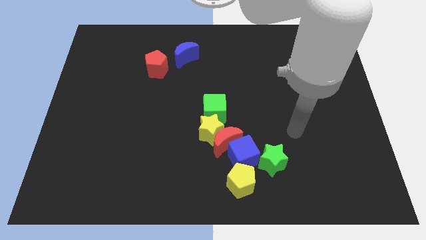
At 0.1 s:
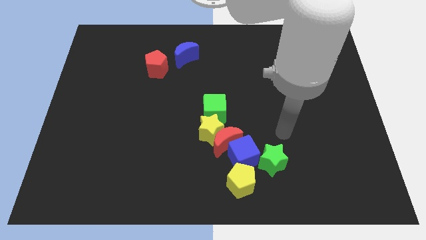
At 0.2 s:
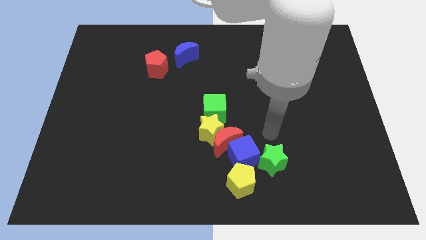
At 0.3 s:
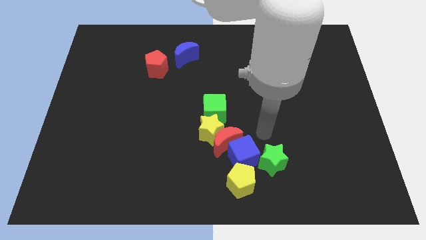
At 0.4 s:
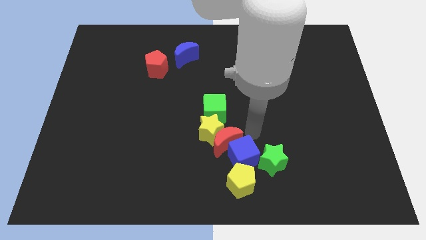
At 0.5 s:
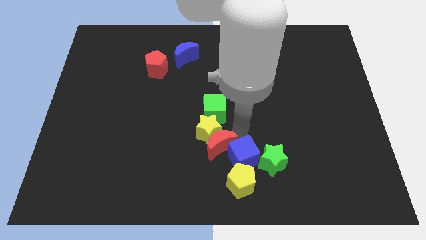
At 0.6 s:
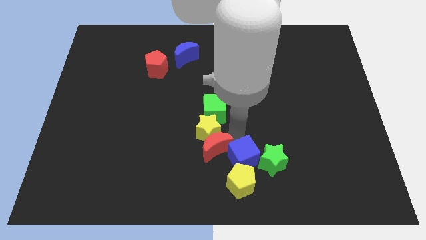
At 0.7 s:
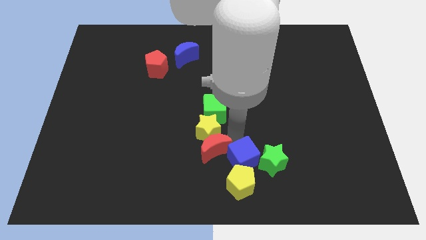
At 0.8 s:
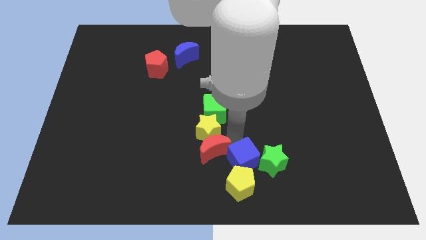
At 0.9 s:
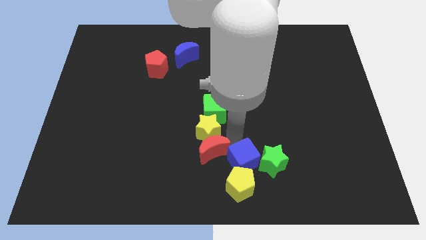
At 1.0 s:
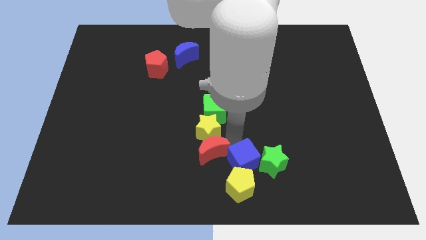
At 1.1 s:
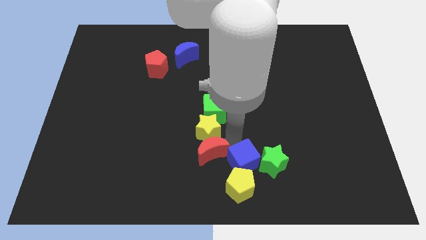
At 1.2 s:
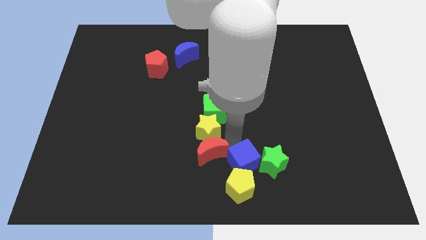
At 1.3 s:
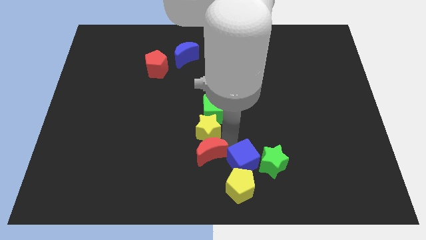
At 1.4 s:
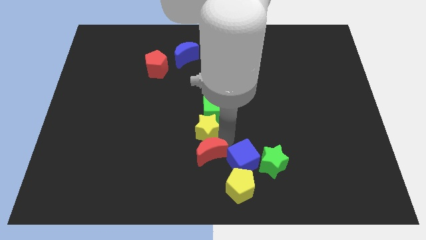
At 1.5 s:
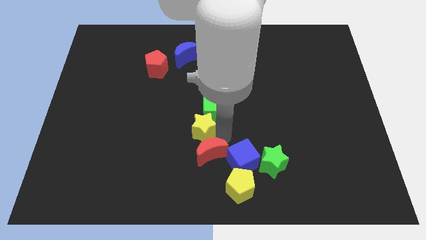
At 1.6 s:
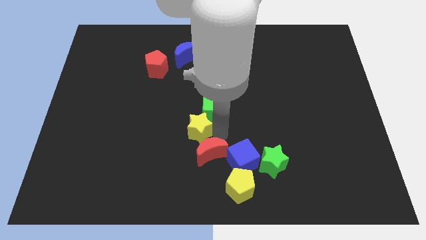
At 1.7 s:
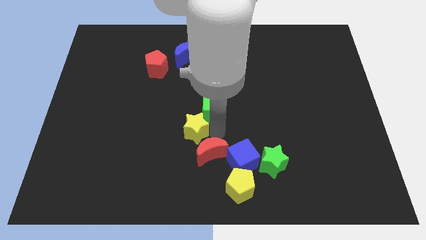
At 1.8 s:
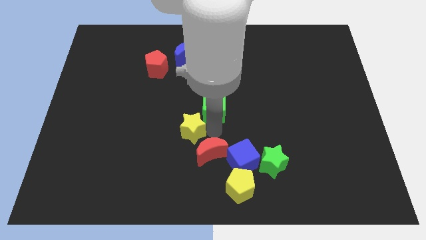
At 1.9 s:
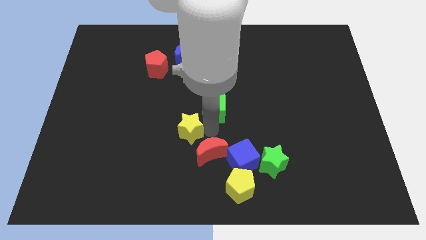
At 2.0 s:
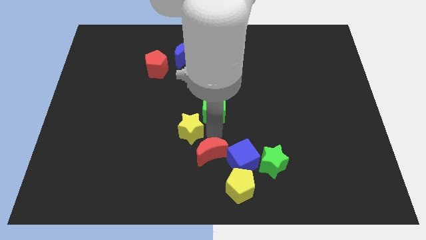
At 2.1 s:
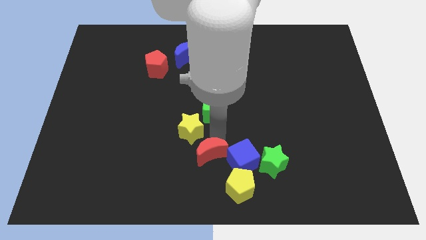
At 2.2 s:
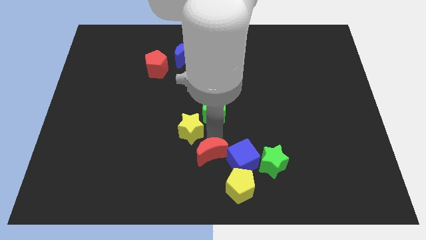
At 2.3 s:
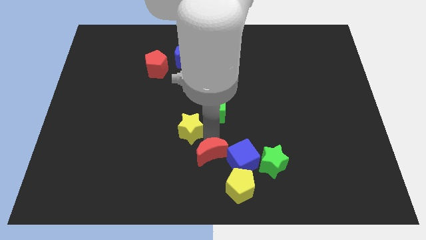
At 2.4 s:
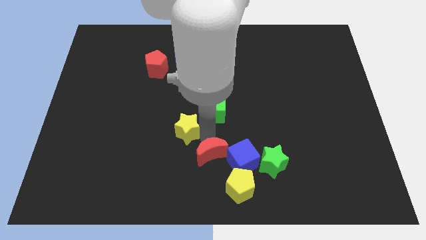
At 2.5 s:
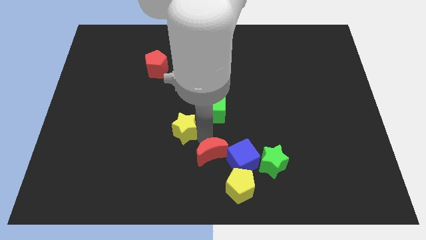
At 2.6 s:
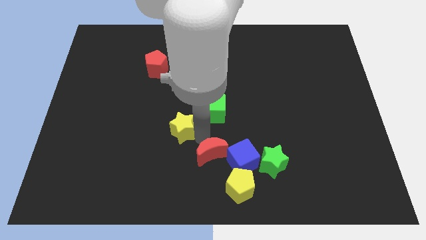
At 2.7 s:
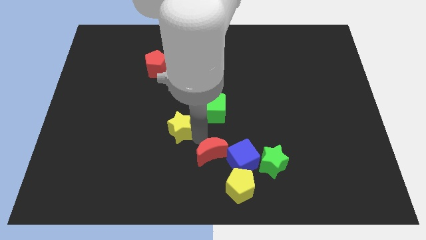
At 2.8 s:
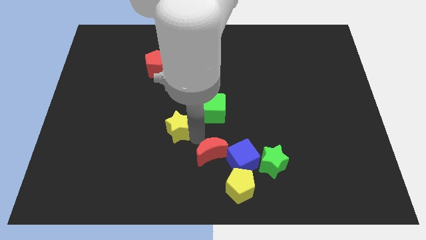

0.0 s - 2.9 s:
pull the yellow star apart from the group of blocks

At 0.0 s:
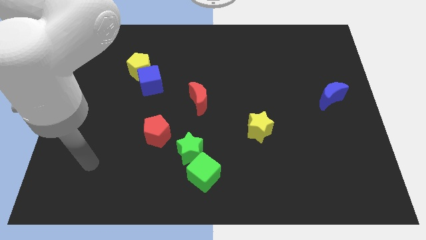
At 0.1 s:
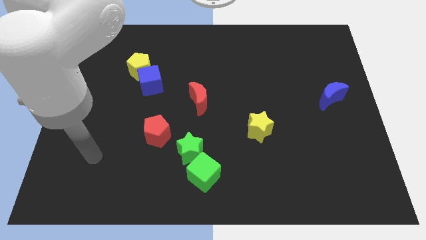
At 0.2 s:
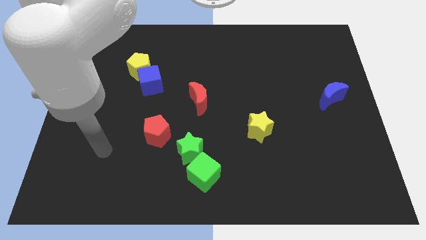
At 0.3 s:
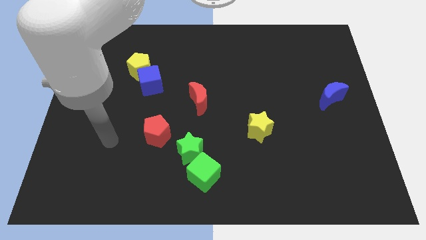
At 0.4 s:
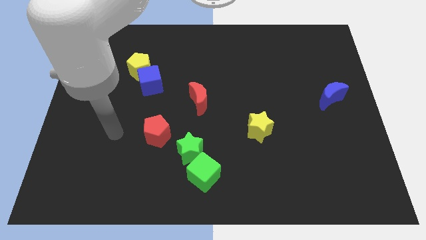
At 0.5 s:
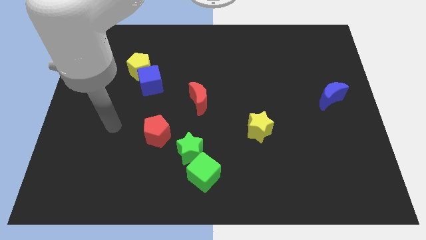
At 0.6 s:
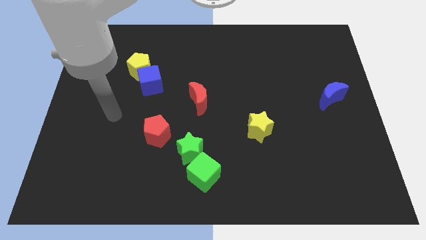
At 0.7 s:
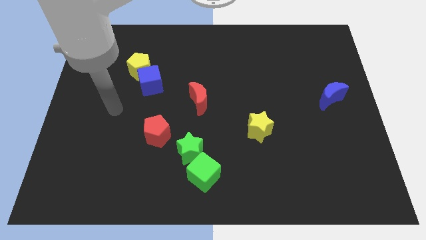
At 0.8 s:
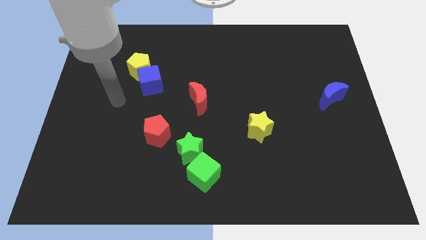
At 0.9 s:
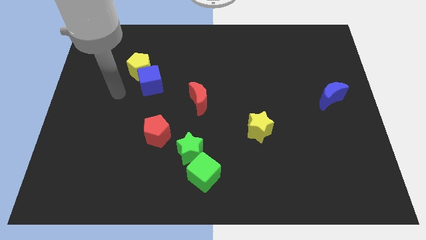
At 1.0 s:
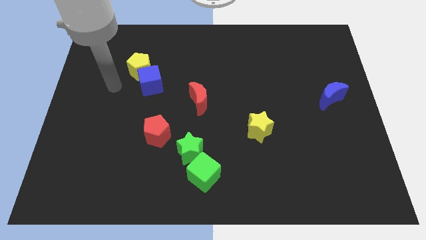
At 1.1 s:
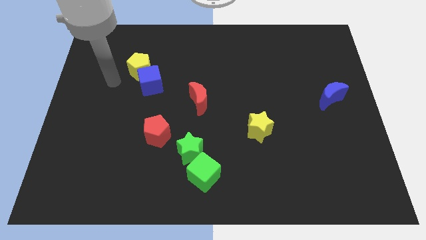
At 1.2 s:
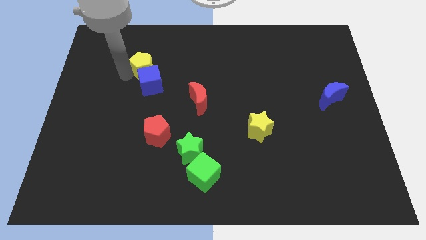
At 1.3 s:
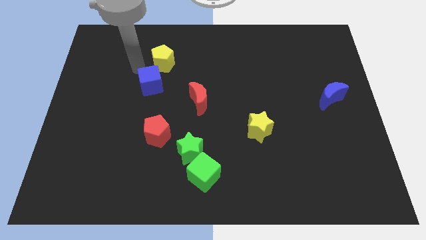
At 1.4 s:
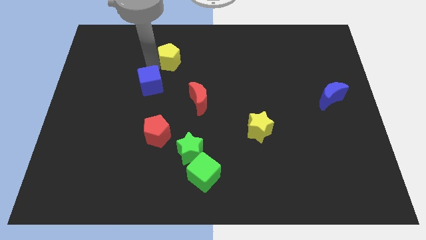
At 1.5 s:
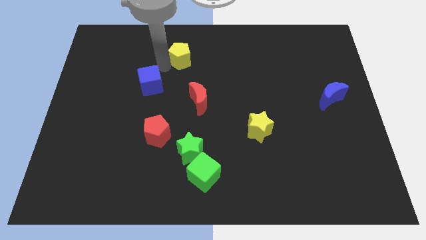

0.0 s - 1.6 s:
separate the blue cube from the yellow pentagon

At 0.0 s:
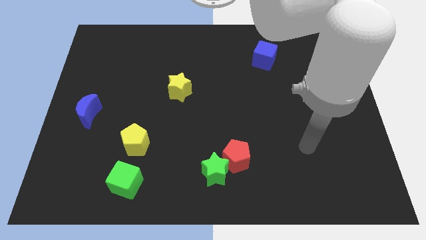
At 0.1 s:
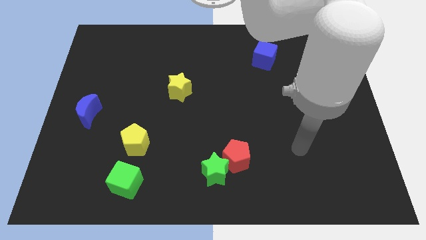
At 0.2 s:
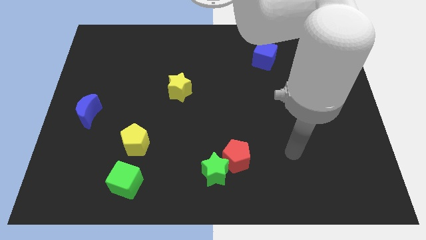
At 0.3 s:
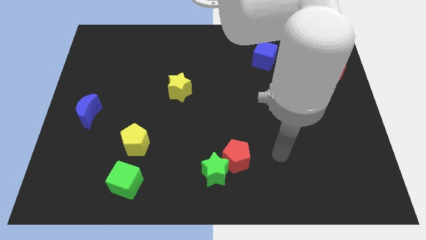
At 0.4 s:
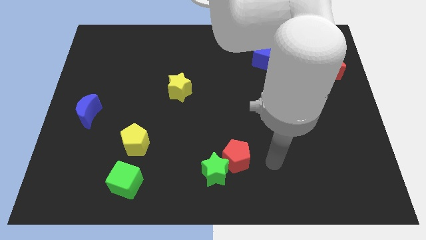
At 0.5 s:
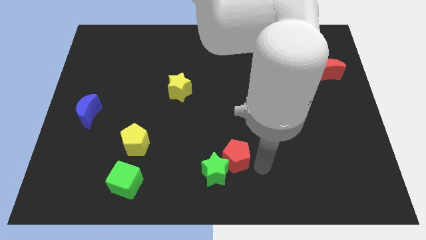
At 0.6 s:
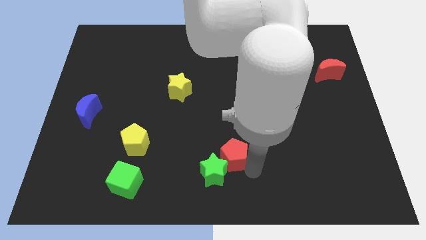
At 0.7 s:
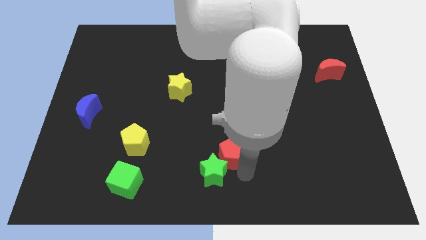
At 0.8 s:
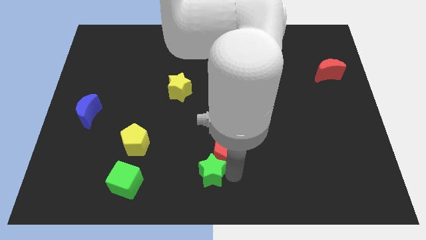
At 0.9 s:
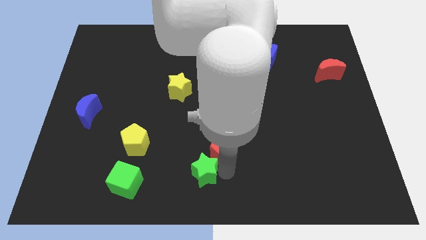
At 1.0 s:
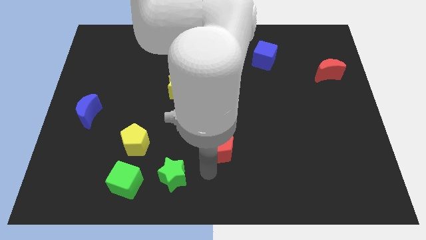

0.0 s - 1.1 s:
move the red pentagon away from the green star

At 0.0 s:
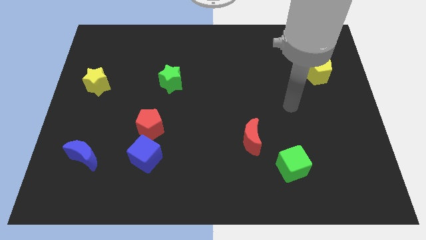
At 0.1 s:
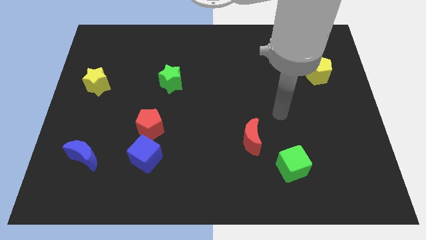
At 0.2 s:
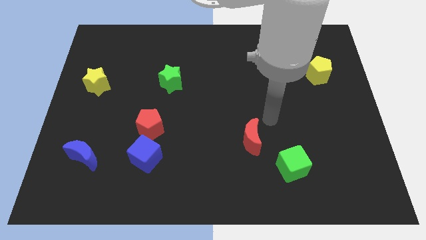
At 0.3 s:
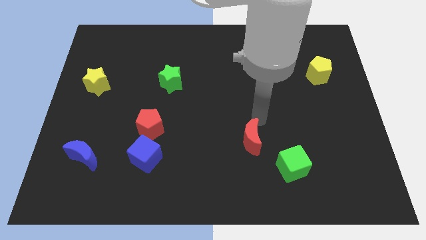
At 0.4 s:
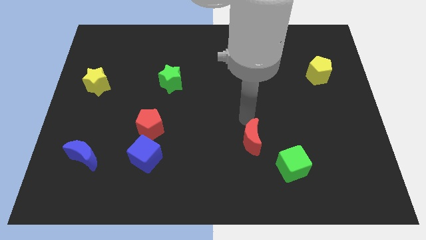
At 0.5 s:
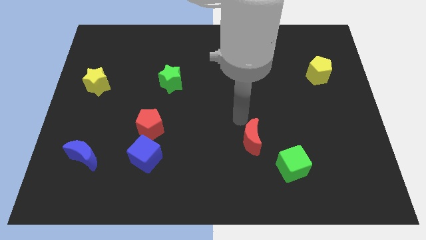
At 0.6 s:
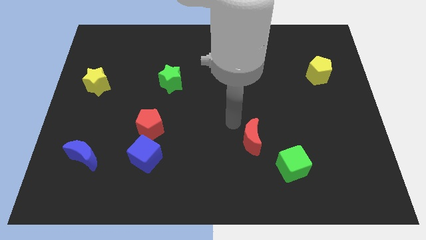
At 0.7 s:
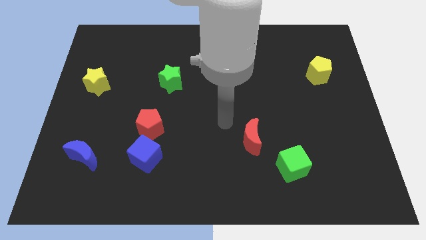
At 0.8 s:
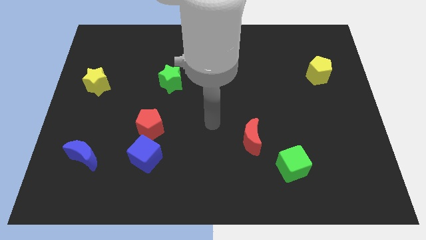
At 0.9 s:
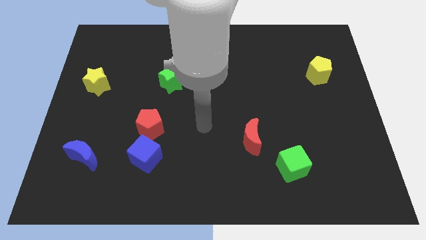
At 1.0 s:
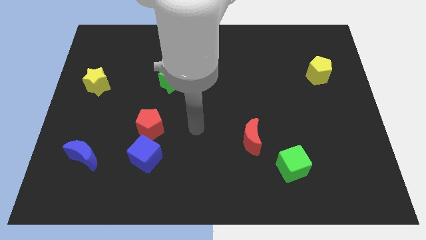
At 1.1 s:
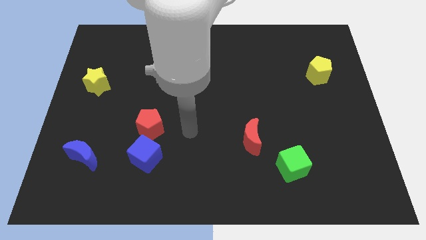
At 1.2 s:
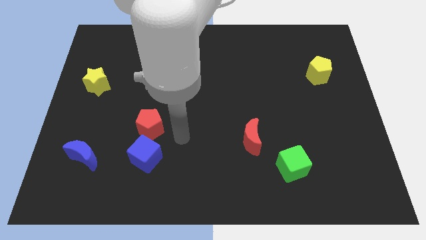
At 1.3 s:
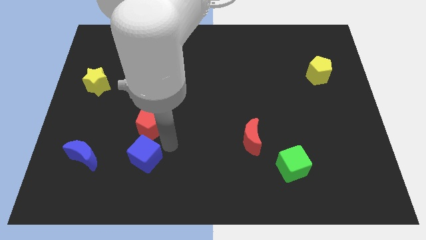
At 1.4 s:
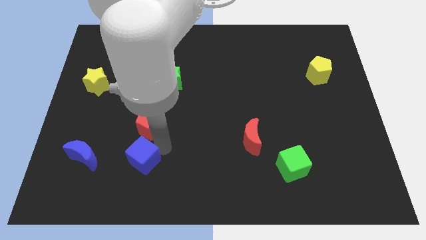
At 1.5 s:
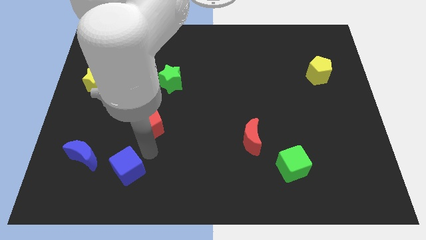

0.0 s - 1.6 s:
move the red pentagon away from the blue cube

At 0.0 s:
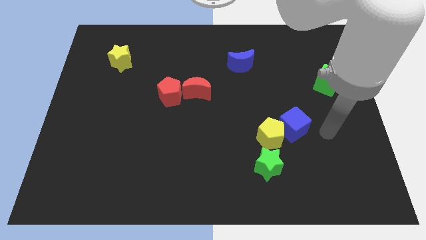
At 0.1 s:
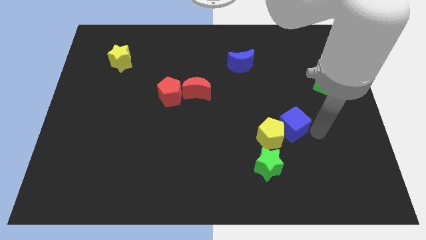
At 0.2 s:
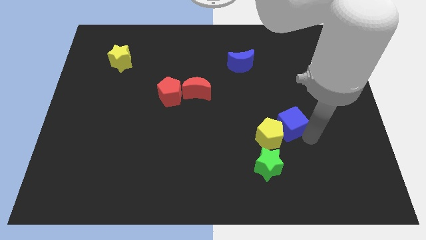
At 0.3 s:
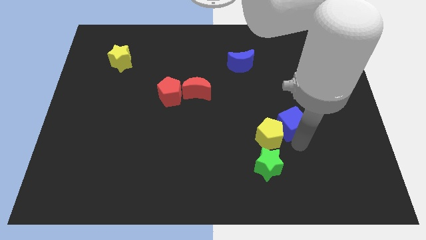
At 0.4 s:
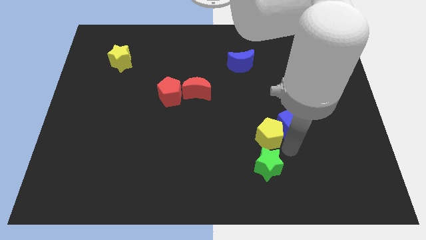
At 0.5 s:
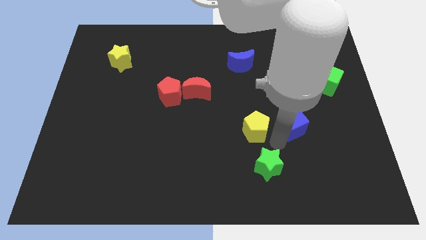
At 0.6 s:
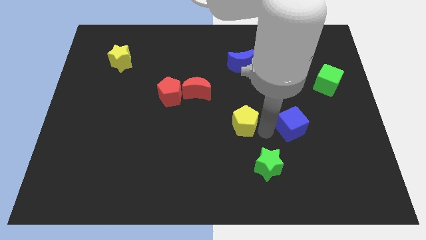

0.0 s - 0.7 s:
pull the blue cube apart from the yellow pentagon

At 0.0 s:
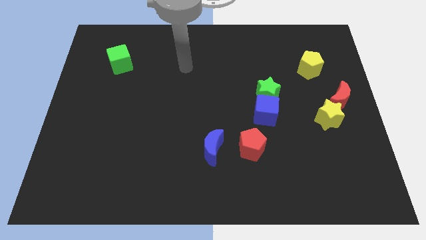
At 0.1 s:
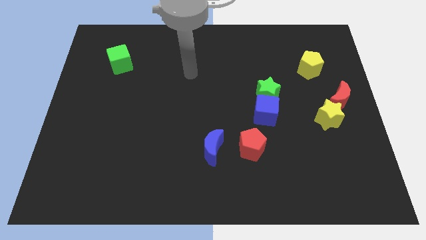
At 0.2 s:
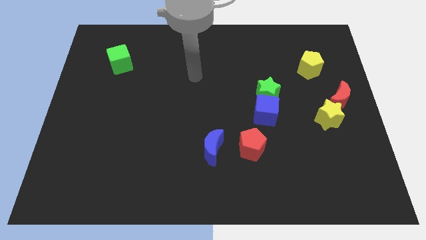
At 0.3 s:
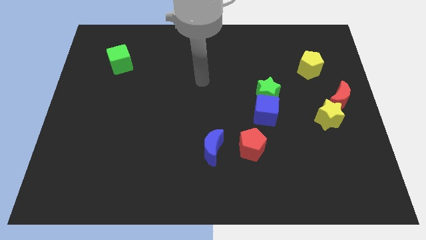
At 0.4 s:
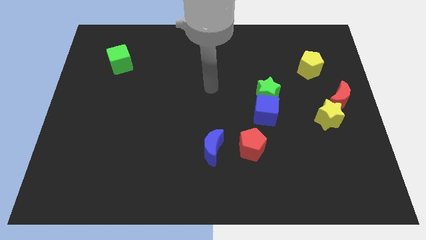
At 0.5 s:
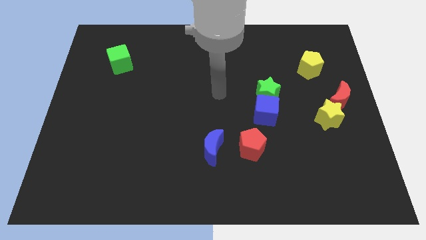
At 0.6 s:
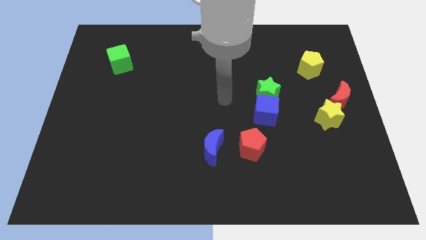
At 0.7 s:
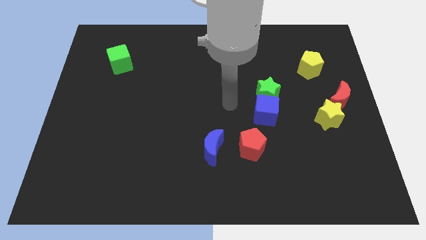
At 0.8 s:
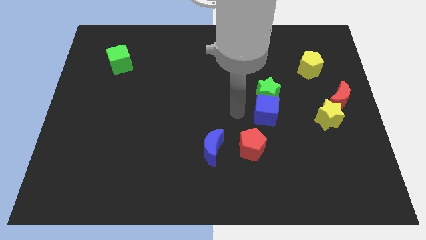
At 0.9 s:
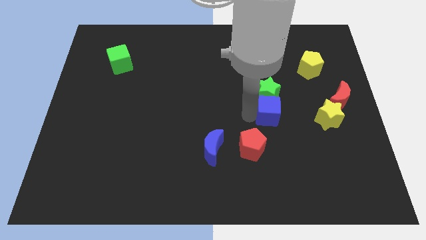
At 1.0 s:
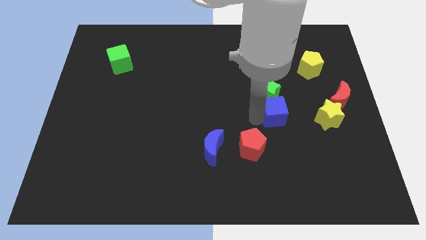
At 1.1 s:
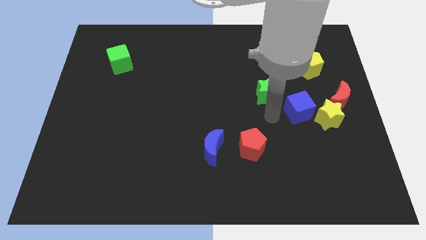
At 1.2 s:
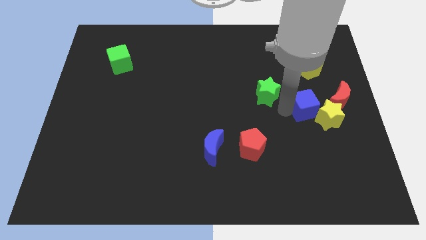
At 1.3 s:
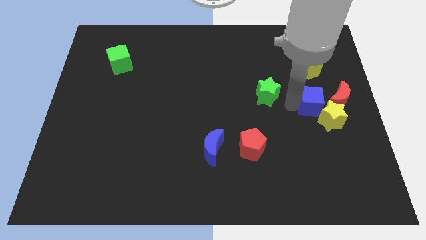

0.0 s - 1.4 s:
pull the green star apart from the blue cube
